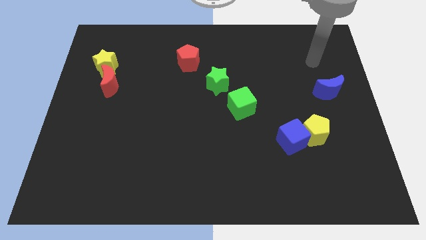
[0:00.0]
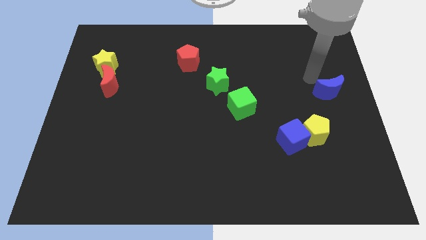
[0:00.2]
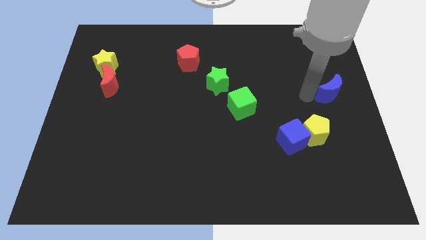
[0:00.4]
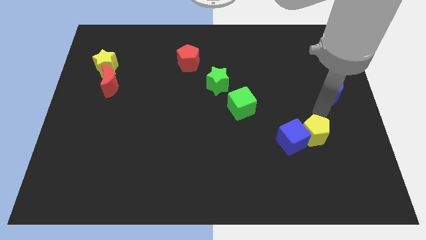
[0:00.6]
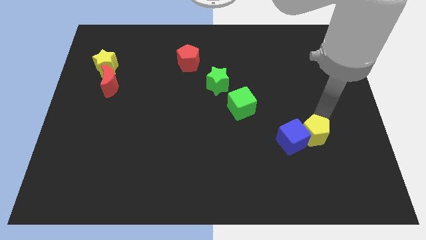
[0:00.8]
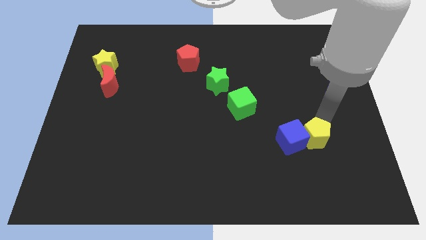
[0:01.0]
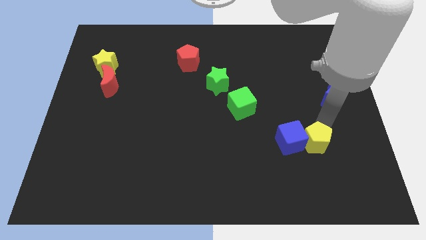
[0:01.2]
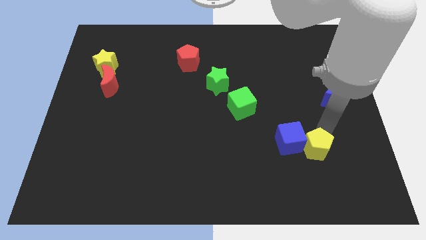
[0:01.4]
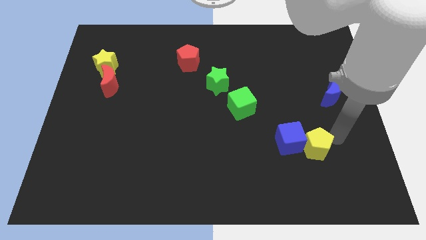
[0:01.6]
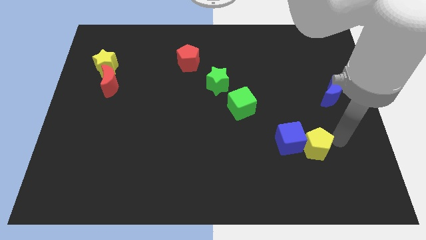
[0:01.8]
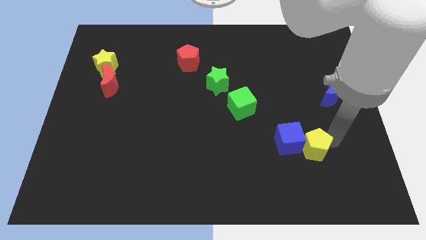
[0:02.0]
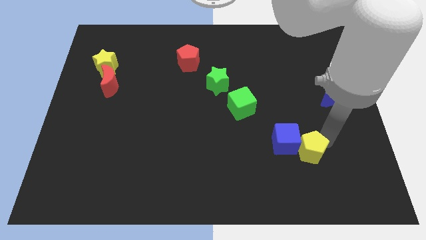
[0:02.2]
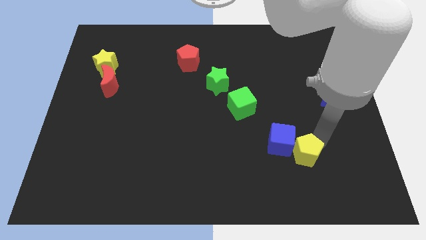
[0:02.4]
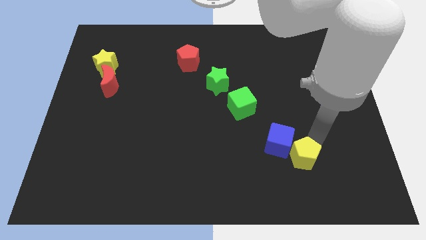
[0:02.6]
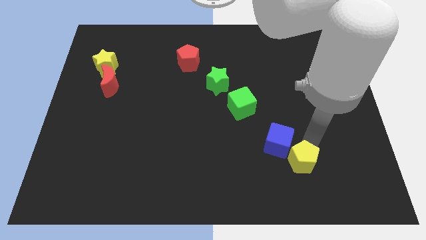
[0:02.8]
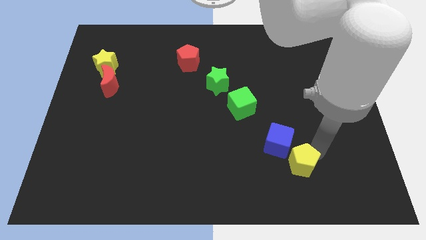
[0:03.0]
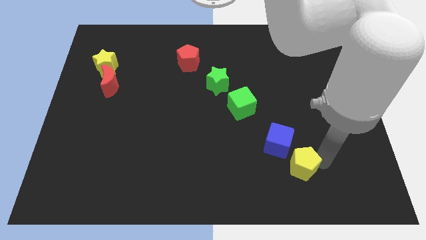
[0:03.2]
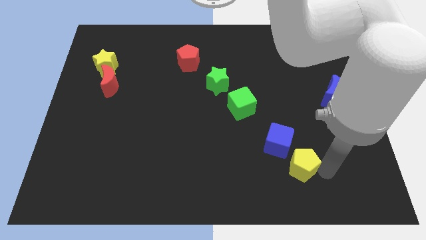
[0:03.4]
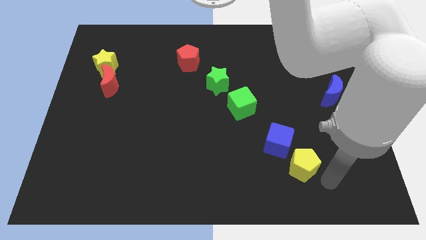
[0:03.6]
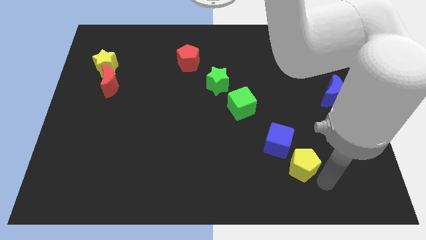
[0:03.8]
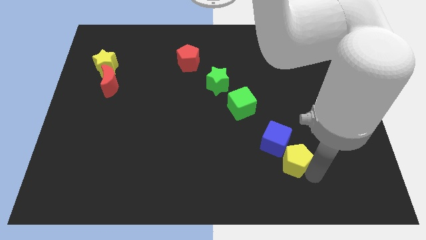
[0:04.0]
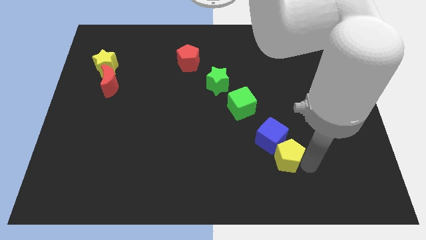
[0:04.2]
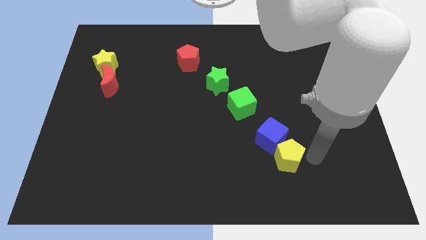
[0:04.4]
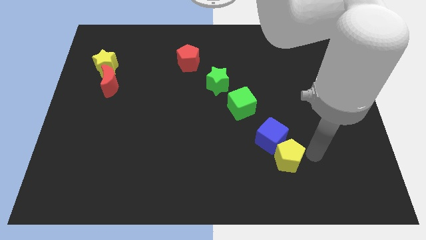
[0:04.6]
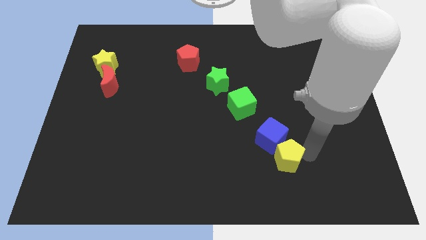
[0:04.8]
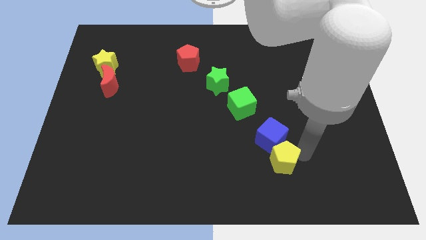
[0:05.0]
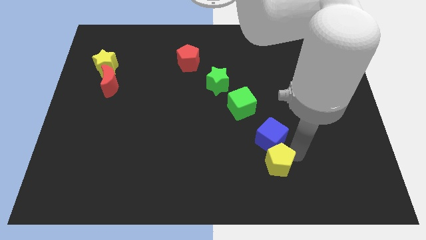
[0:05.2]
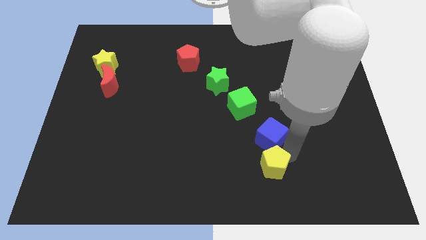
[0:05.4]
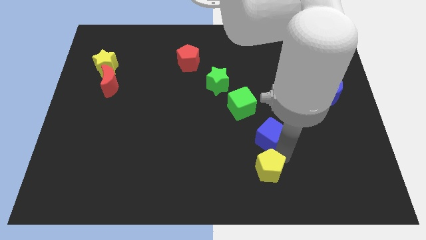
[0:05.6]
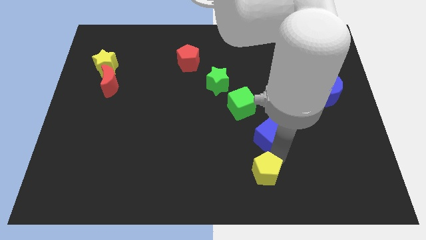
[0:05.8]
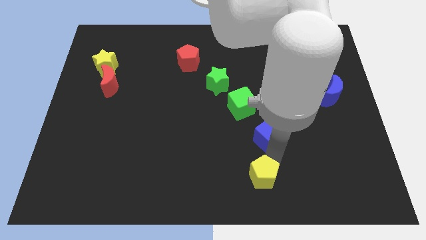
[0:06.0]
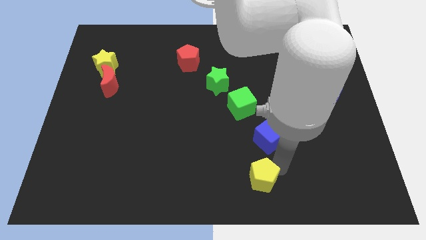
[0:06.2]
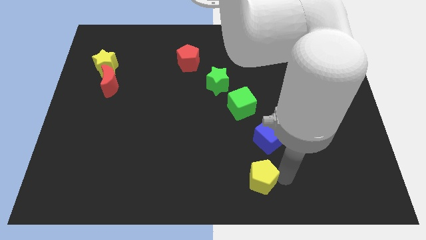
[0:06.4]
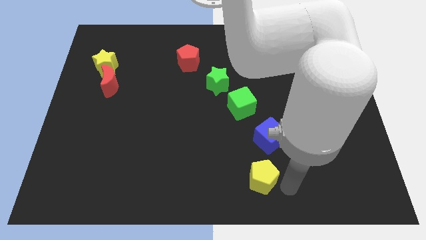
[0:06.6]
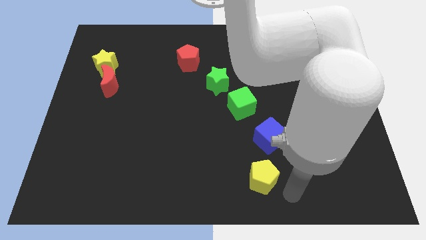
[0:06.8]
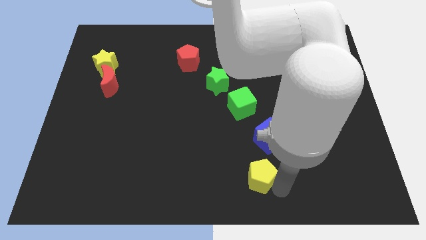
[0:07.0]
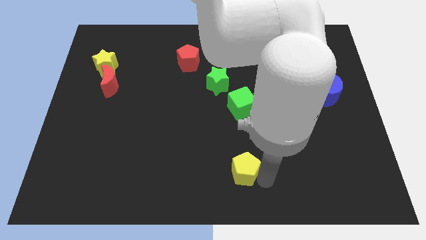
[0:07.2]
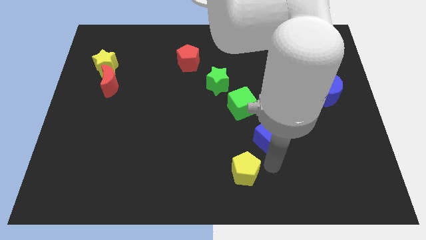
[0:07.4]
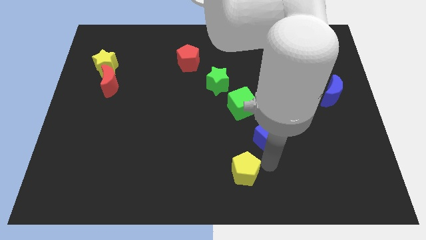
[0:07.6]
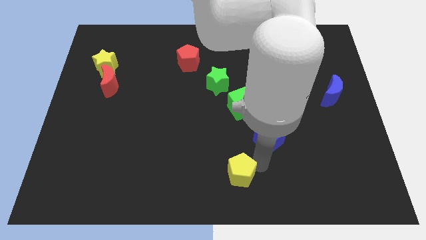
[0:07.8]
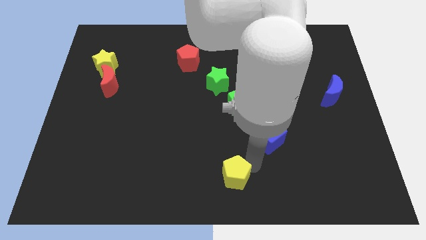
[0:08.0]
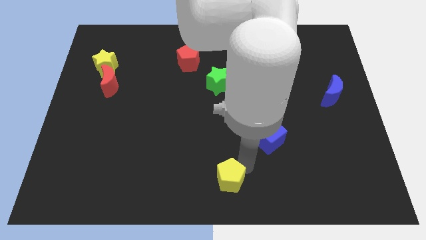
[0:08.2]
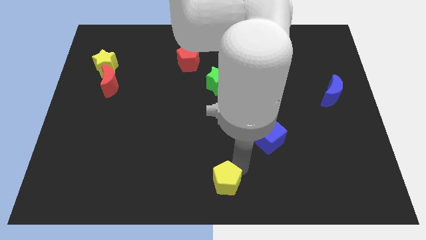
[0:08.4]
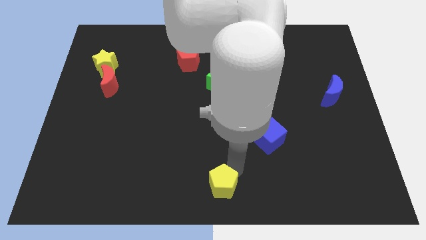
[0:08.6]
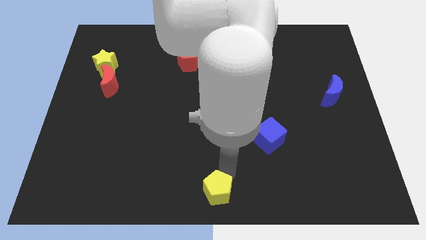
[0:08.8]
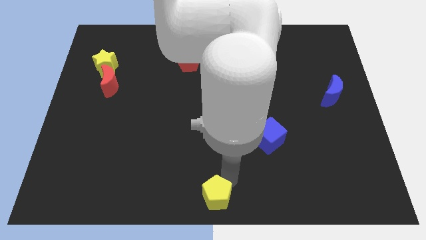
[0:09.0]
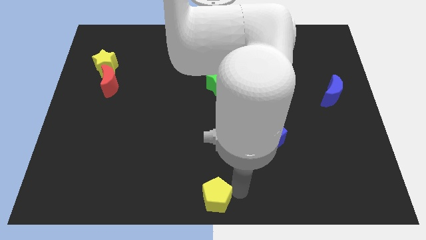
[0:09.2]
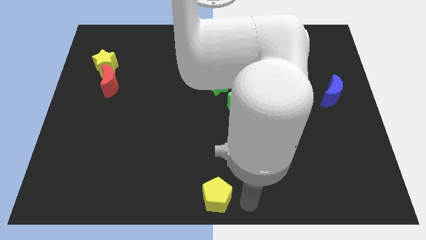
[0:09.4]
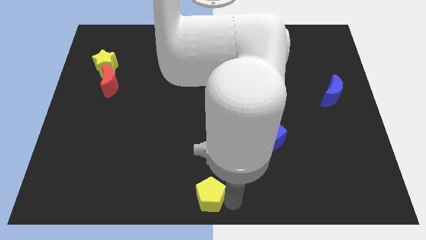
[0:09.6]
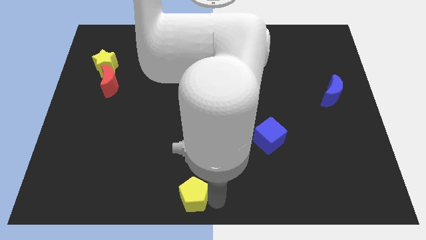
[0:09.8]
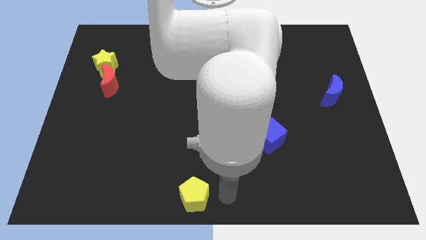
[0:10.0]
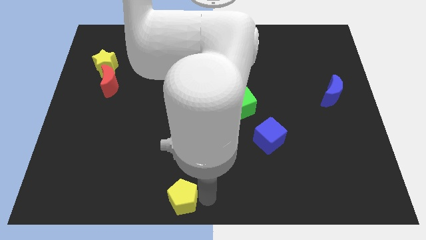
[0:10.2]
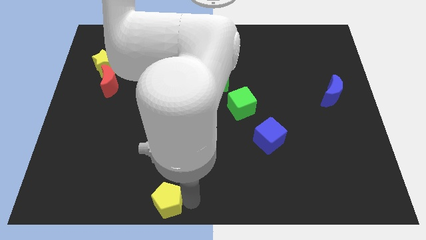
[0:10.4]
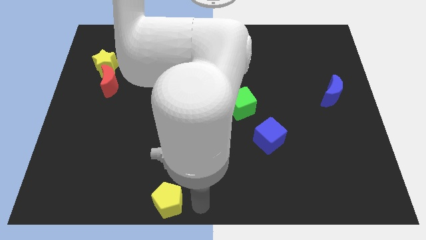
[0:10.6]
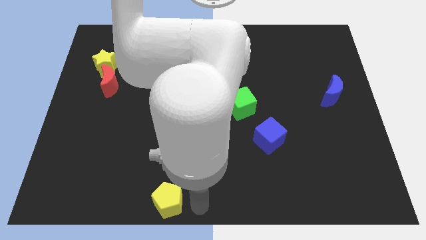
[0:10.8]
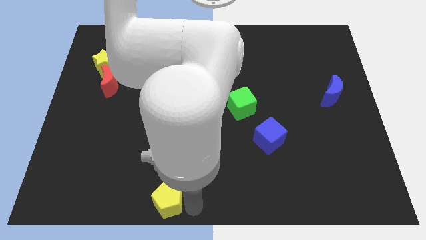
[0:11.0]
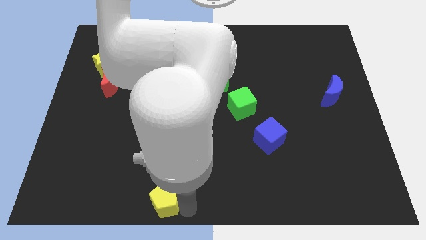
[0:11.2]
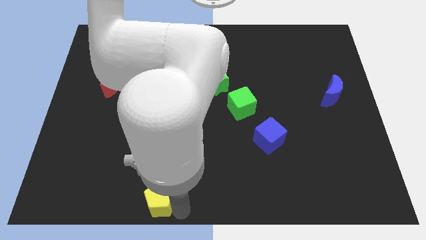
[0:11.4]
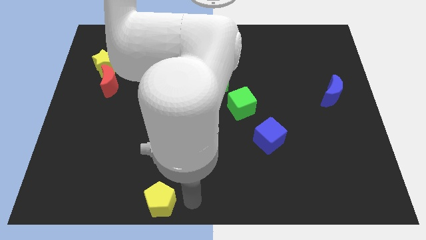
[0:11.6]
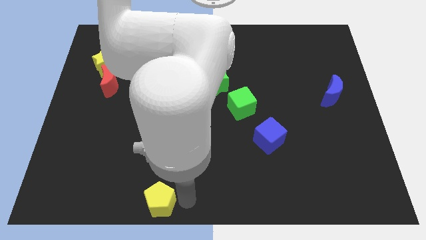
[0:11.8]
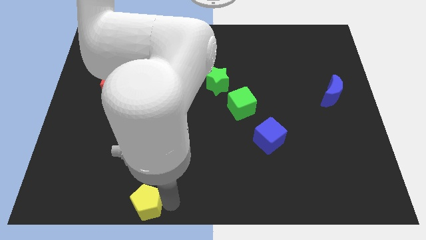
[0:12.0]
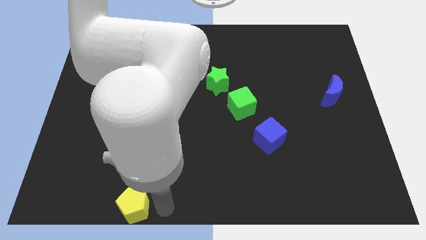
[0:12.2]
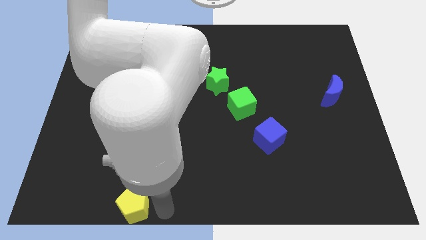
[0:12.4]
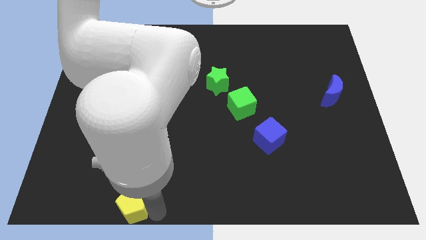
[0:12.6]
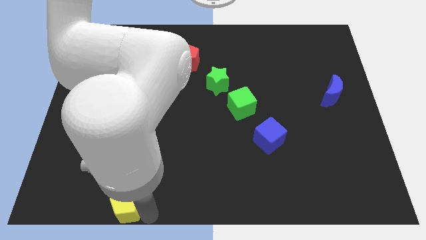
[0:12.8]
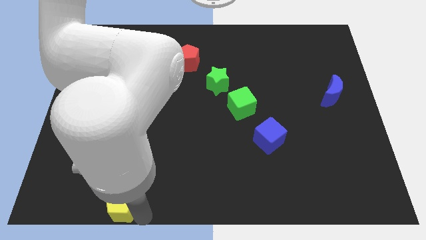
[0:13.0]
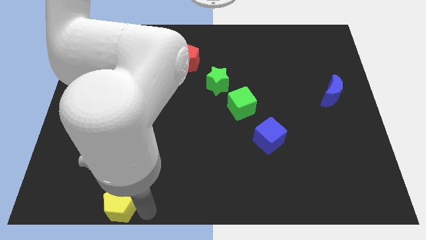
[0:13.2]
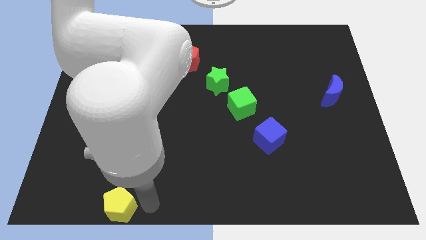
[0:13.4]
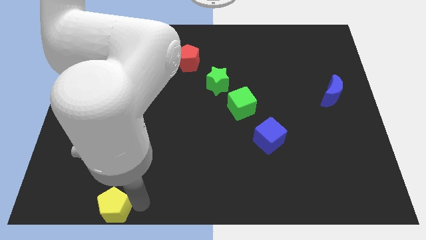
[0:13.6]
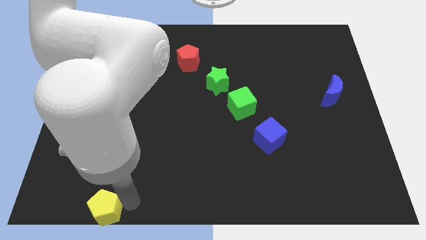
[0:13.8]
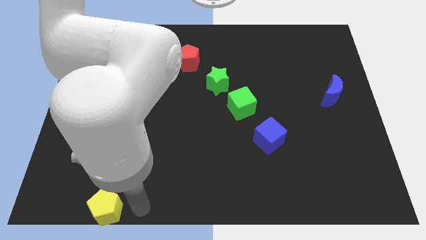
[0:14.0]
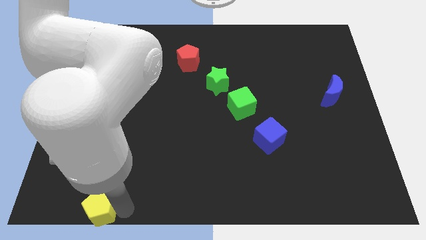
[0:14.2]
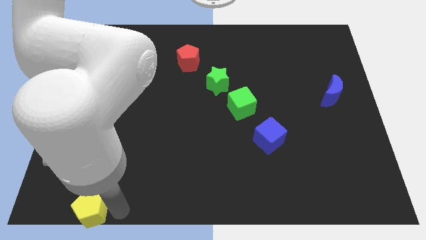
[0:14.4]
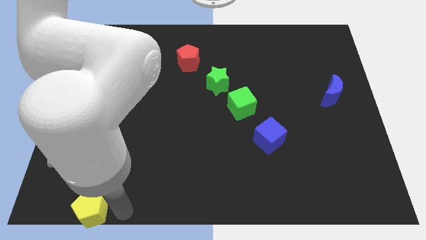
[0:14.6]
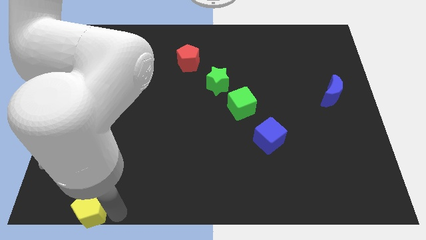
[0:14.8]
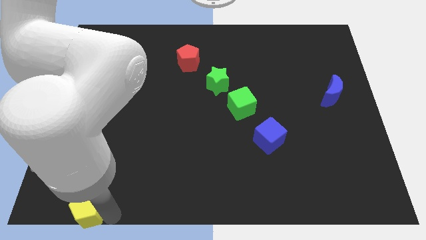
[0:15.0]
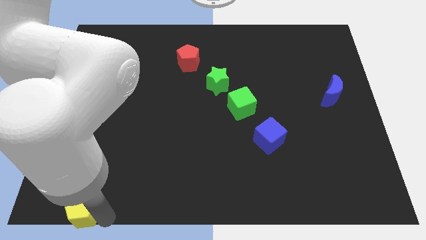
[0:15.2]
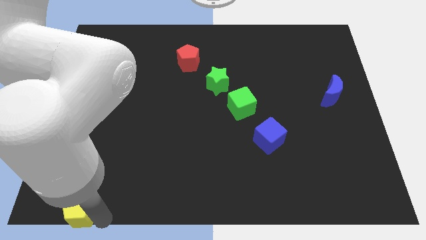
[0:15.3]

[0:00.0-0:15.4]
move the yellow pentagon to the bottom left
